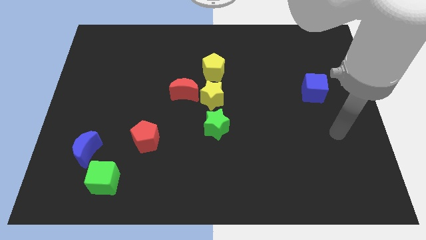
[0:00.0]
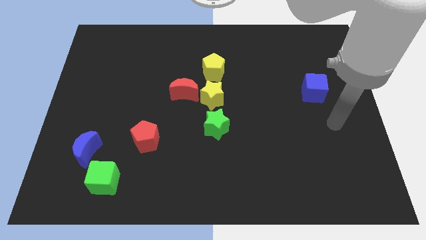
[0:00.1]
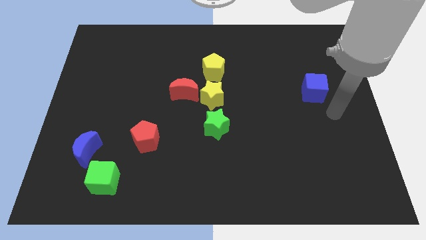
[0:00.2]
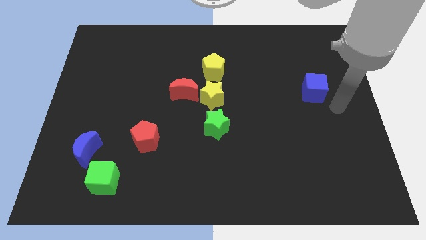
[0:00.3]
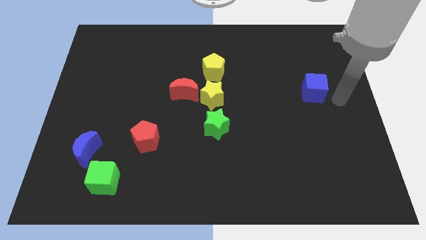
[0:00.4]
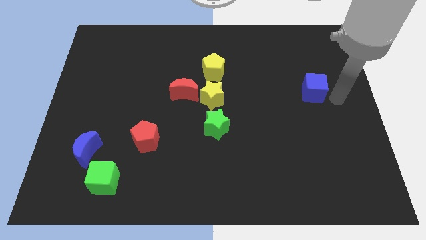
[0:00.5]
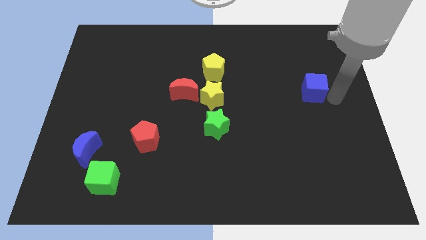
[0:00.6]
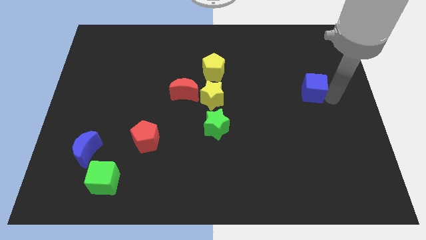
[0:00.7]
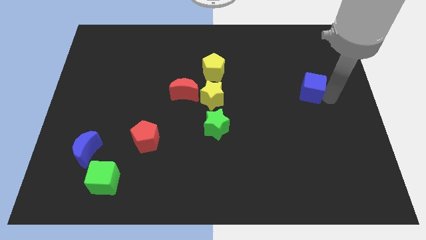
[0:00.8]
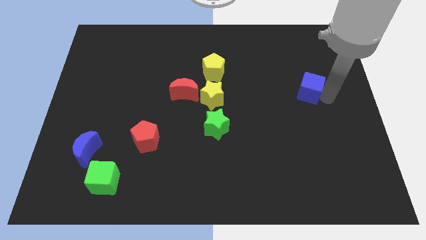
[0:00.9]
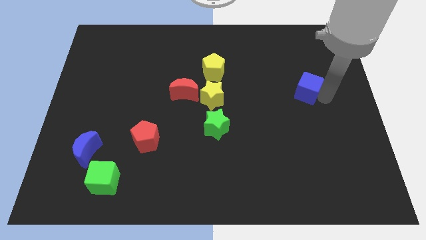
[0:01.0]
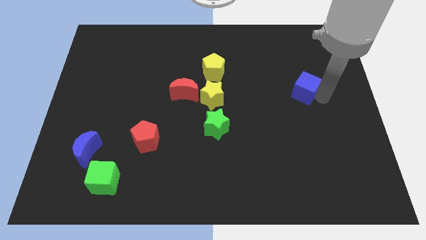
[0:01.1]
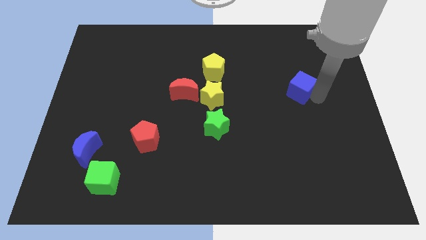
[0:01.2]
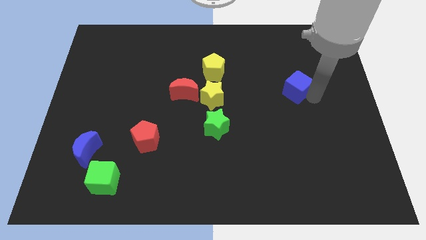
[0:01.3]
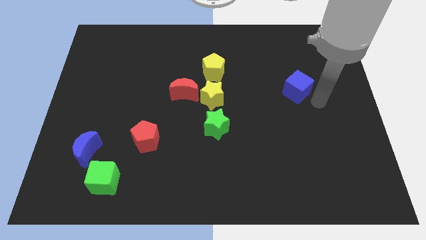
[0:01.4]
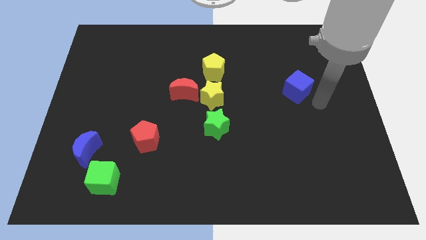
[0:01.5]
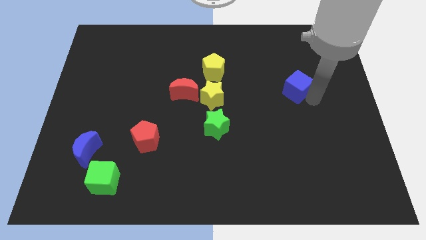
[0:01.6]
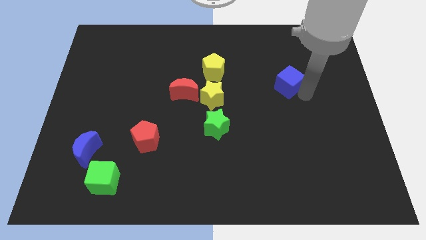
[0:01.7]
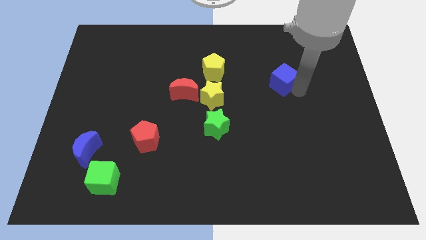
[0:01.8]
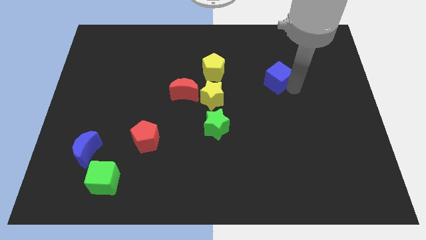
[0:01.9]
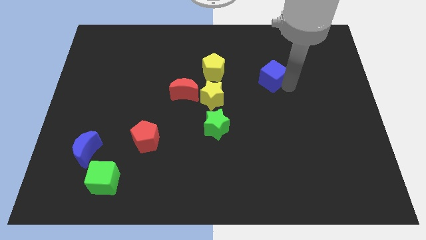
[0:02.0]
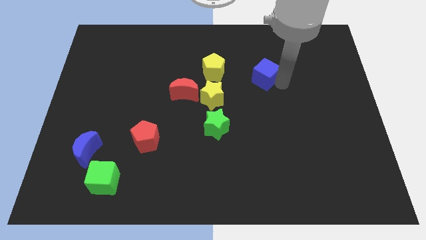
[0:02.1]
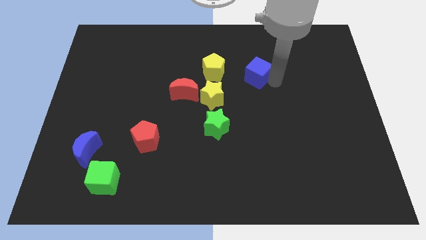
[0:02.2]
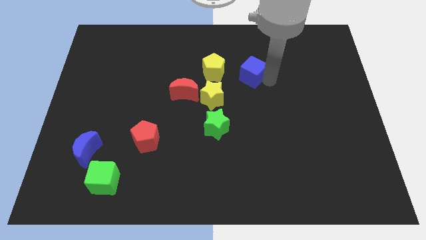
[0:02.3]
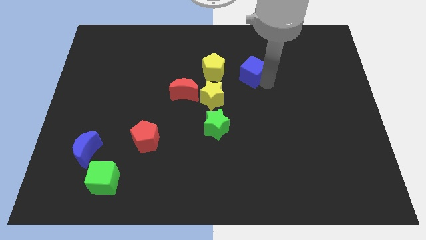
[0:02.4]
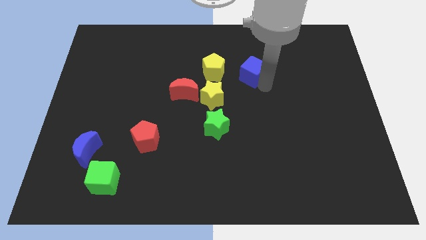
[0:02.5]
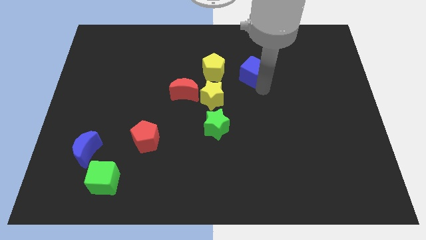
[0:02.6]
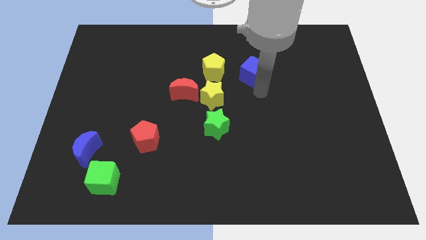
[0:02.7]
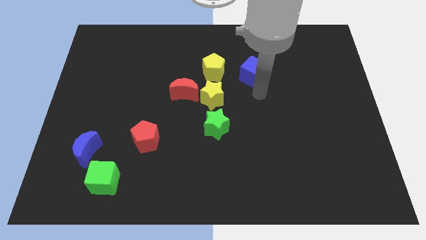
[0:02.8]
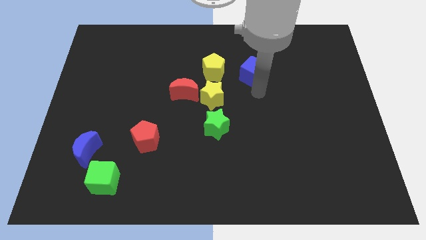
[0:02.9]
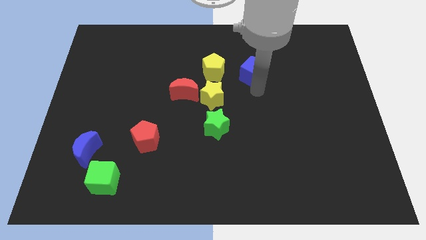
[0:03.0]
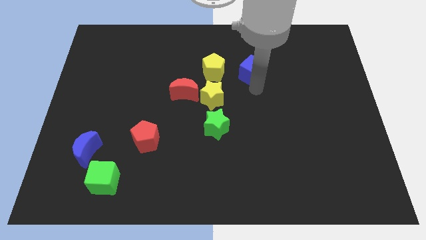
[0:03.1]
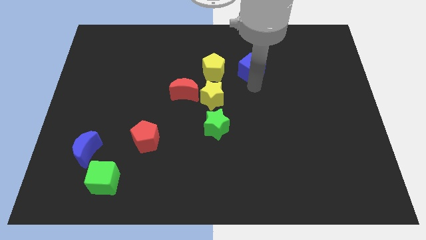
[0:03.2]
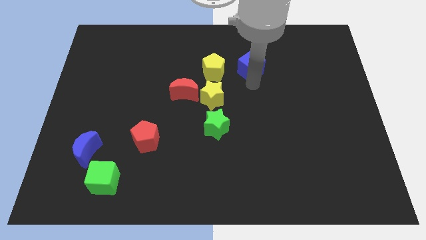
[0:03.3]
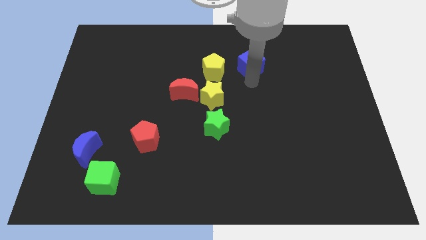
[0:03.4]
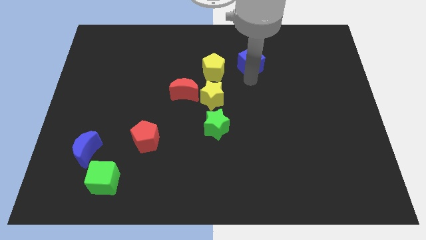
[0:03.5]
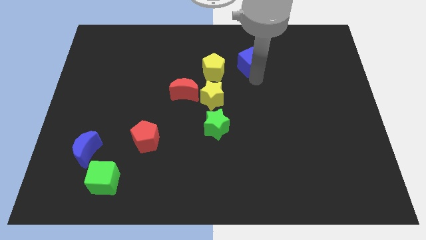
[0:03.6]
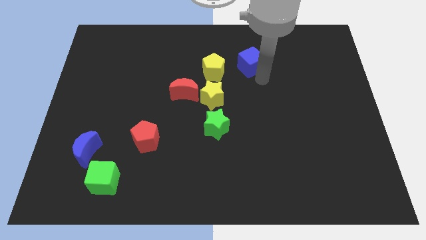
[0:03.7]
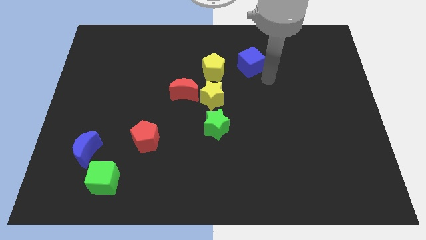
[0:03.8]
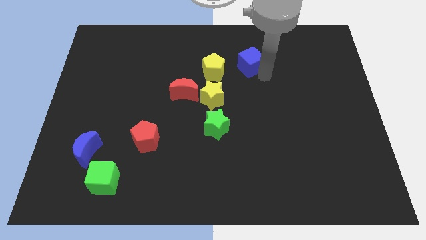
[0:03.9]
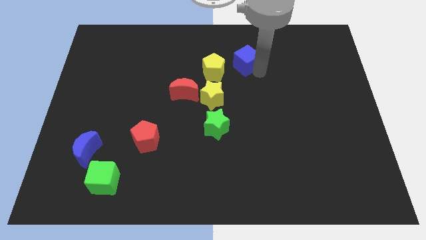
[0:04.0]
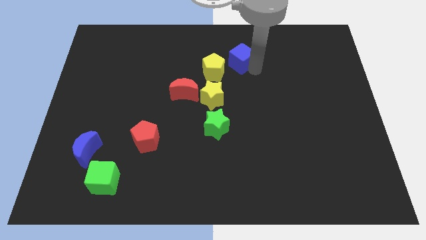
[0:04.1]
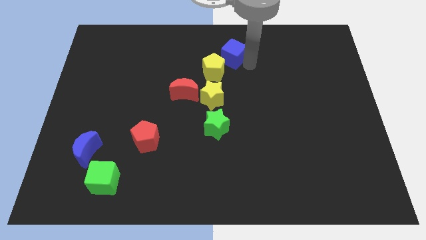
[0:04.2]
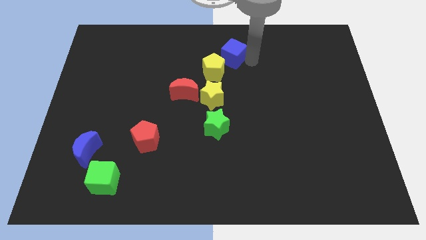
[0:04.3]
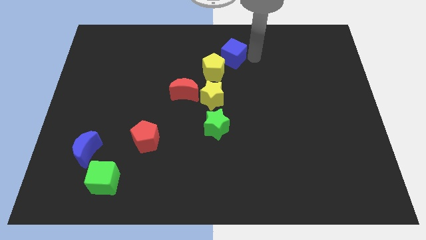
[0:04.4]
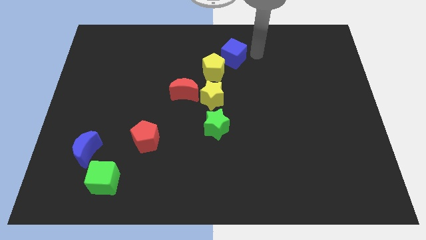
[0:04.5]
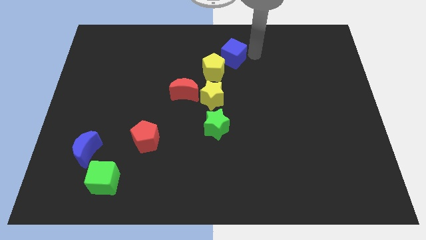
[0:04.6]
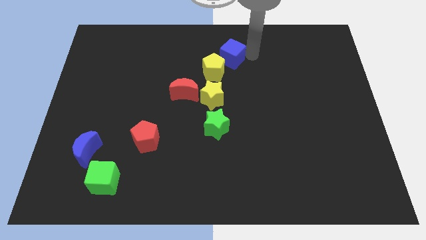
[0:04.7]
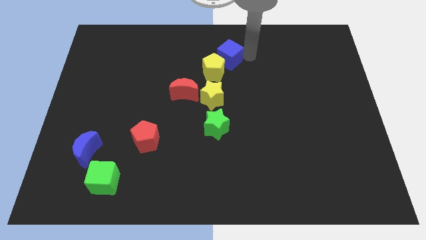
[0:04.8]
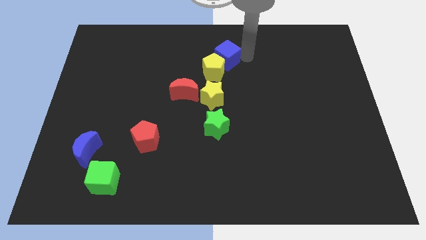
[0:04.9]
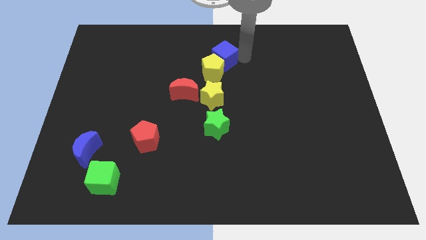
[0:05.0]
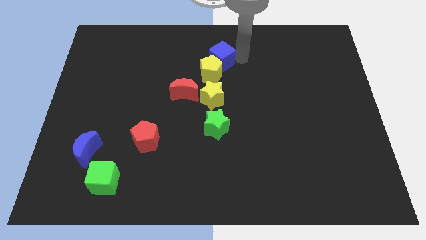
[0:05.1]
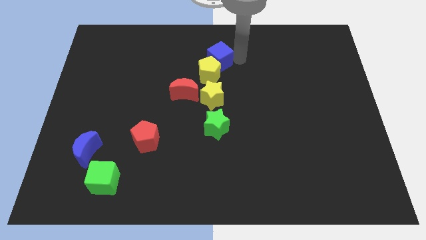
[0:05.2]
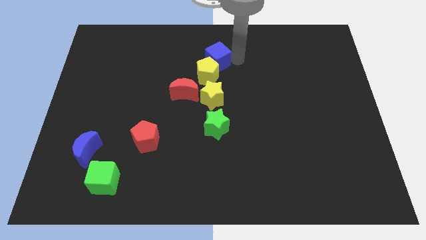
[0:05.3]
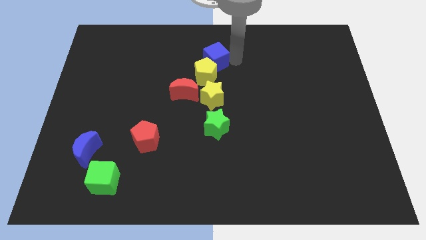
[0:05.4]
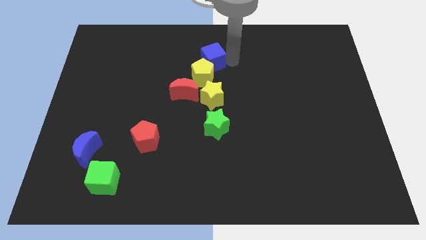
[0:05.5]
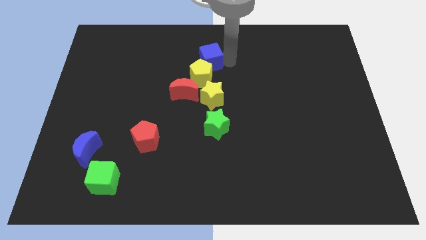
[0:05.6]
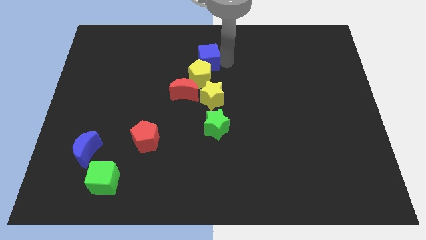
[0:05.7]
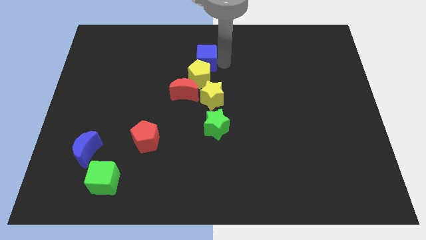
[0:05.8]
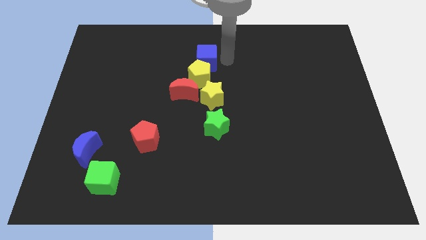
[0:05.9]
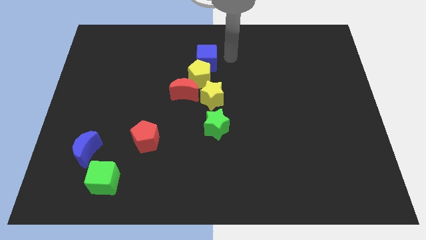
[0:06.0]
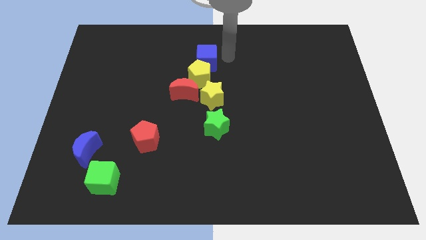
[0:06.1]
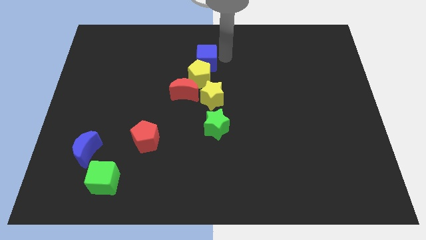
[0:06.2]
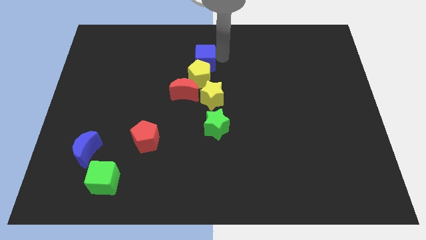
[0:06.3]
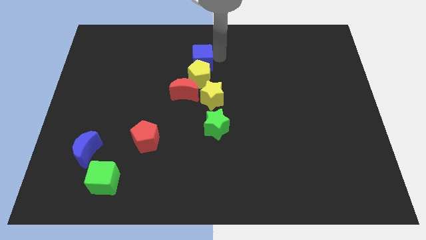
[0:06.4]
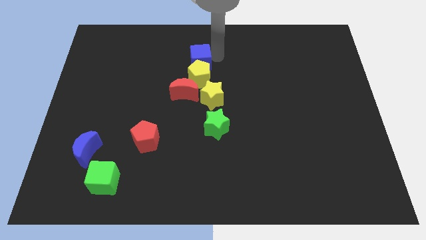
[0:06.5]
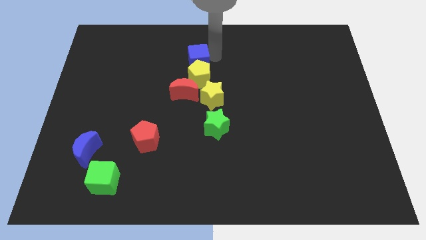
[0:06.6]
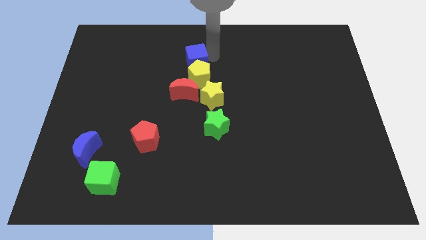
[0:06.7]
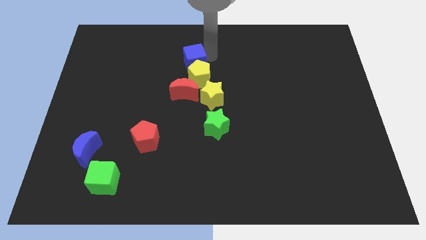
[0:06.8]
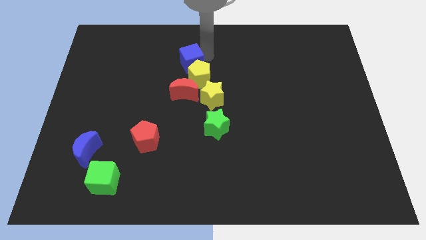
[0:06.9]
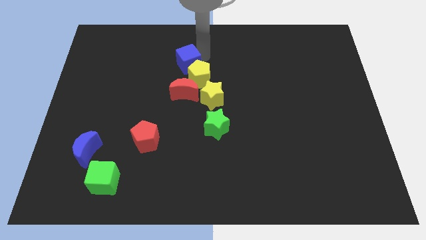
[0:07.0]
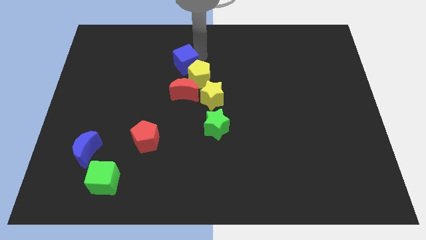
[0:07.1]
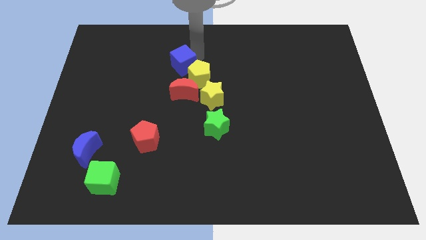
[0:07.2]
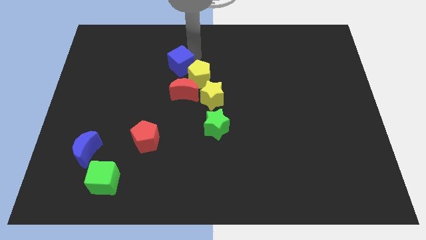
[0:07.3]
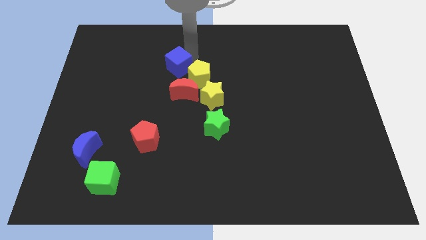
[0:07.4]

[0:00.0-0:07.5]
put the blue cube diagonally up and to the left of the red moon
